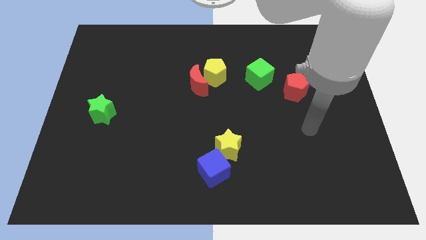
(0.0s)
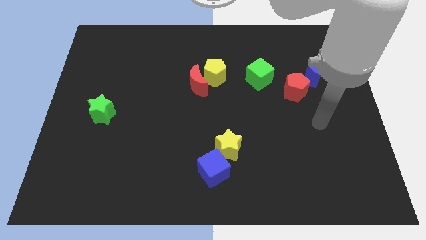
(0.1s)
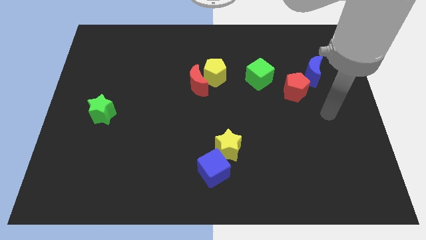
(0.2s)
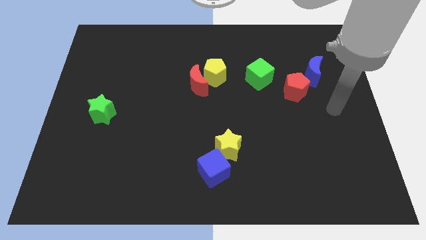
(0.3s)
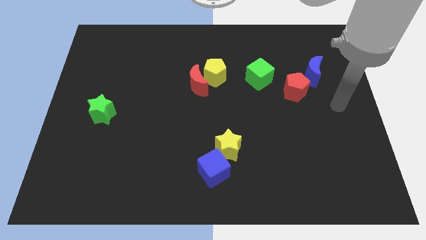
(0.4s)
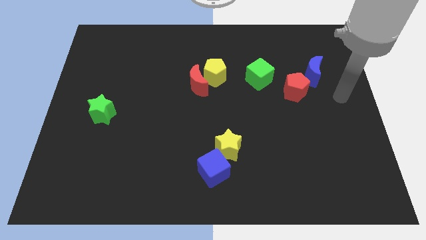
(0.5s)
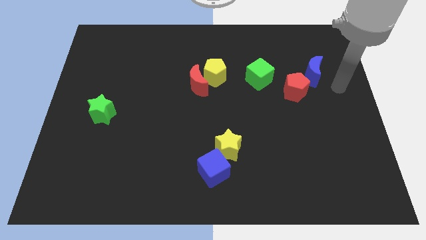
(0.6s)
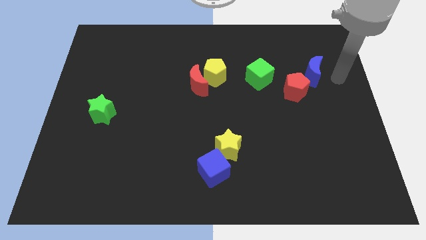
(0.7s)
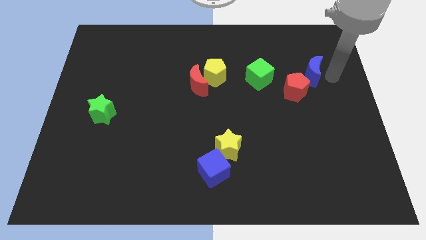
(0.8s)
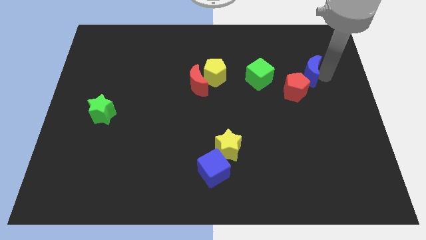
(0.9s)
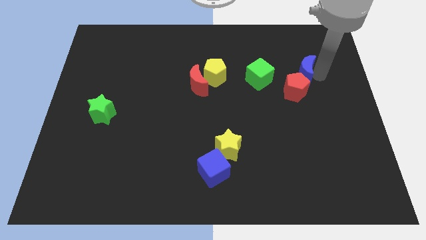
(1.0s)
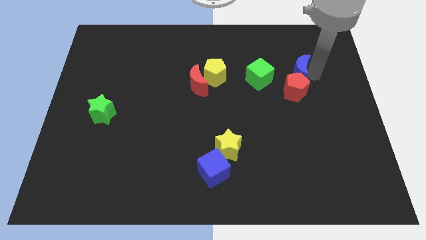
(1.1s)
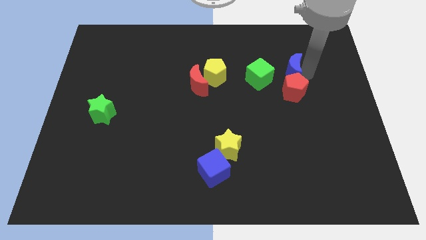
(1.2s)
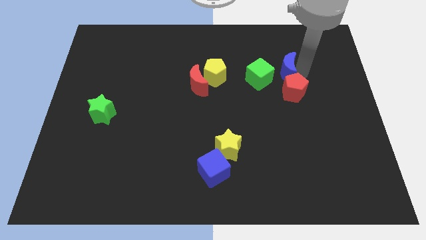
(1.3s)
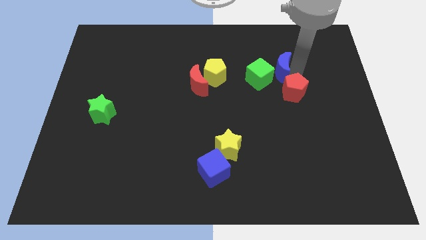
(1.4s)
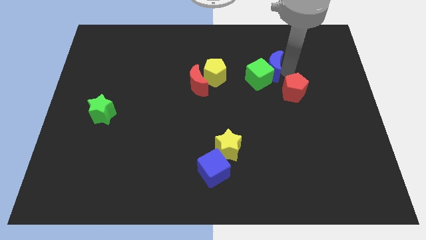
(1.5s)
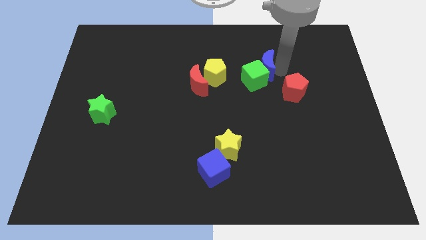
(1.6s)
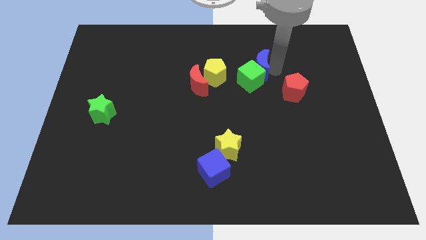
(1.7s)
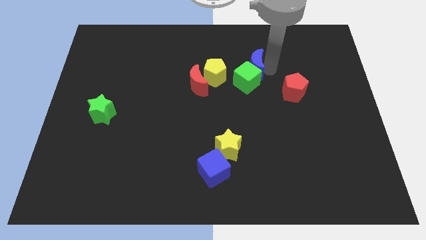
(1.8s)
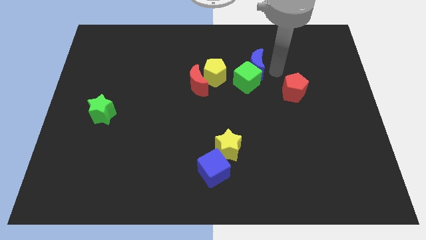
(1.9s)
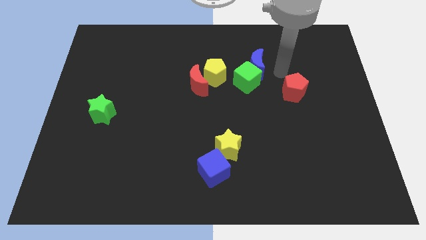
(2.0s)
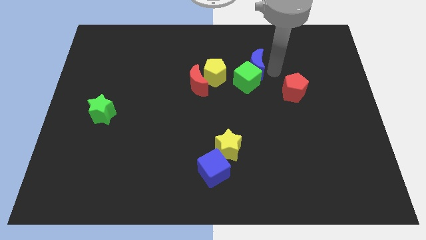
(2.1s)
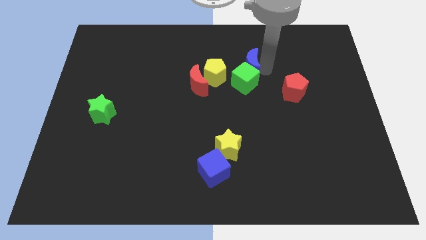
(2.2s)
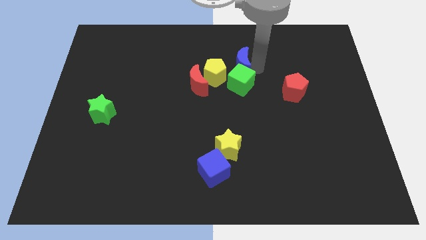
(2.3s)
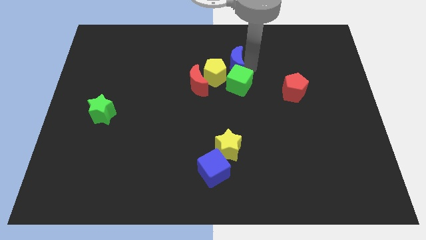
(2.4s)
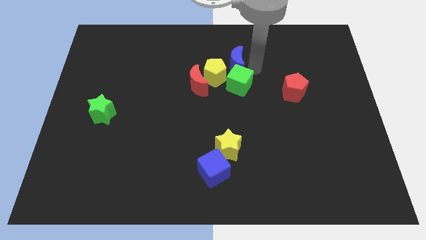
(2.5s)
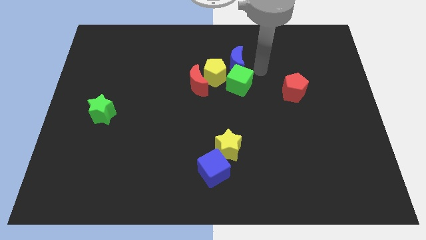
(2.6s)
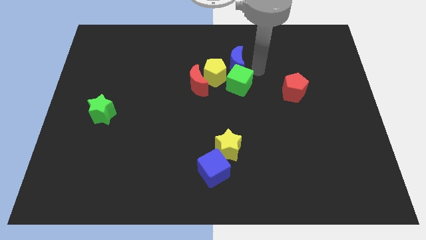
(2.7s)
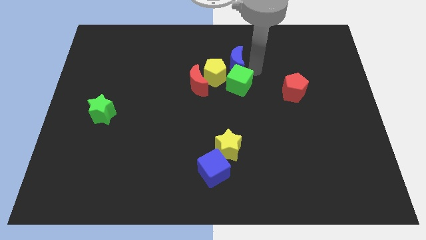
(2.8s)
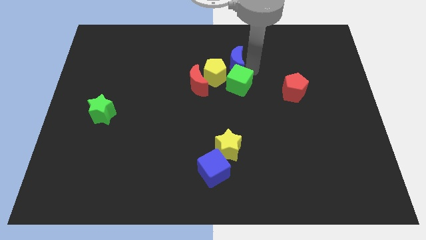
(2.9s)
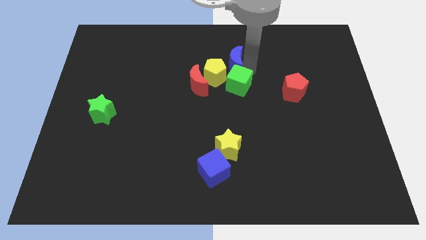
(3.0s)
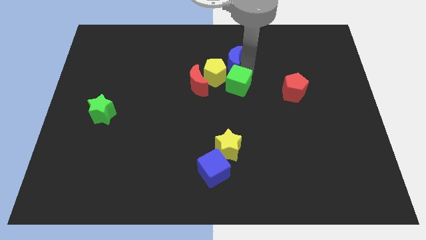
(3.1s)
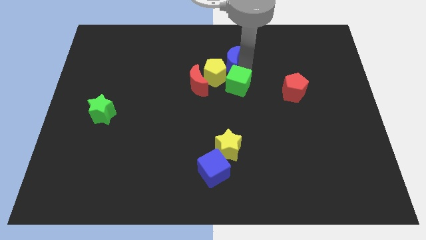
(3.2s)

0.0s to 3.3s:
move the blue moon to the left

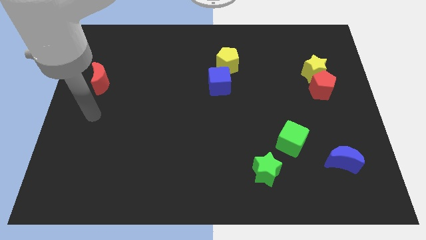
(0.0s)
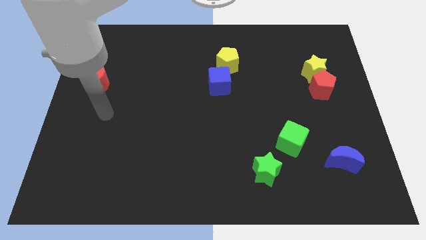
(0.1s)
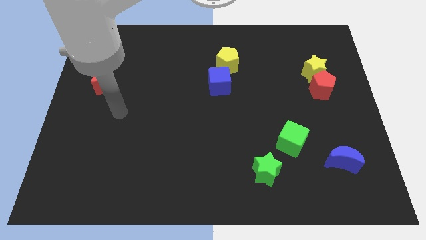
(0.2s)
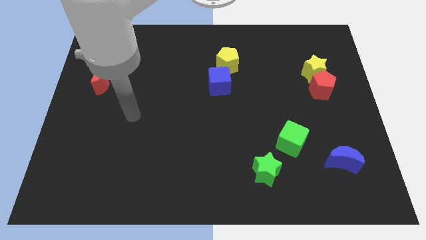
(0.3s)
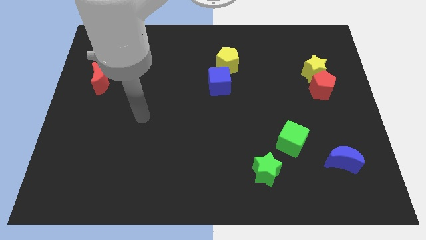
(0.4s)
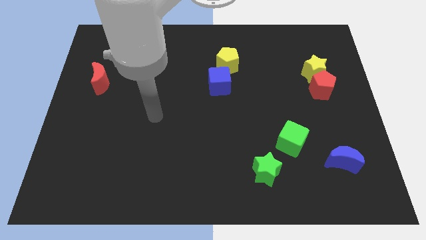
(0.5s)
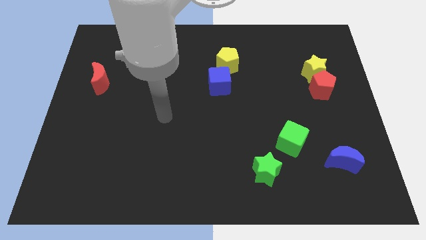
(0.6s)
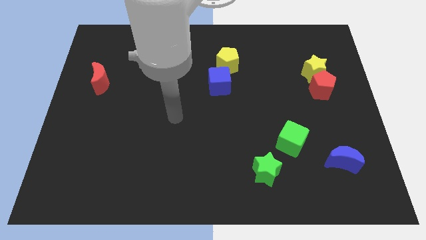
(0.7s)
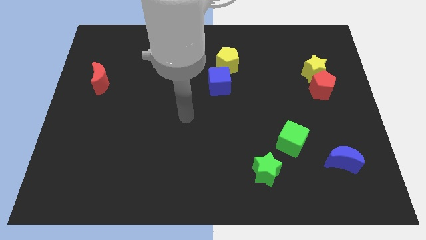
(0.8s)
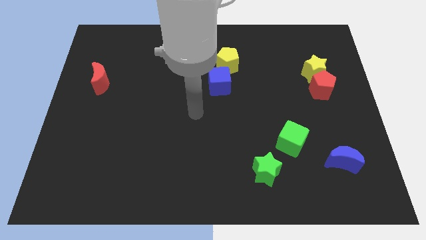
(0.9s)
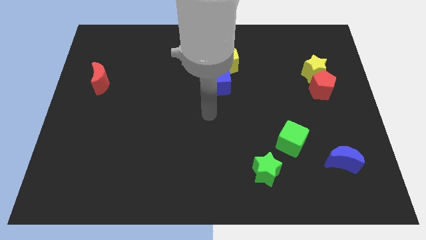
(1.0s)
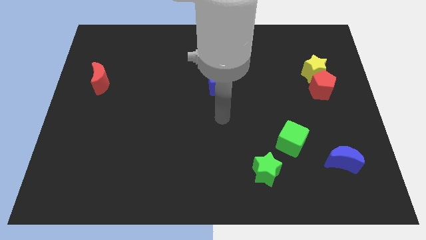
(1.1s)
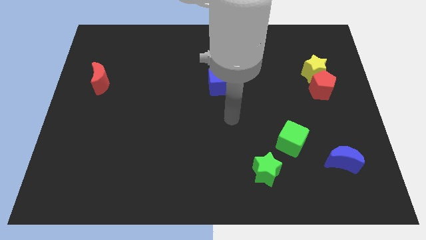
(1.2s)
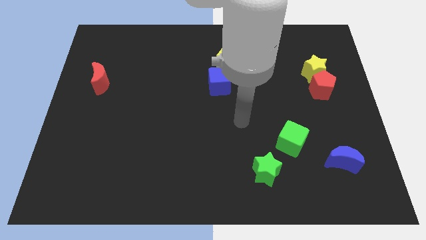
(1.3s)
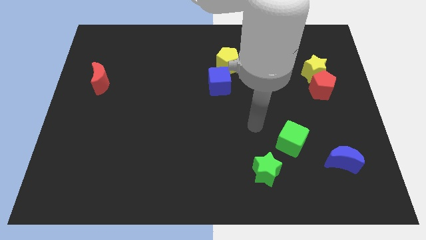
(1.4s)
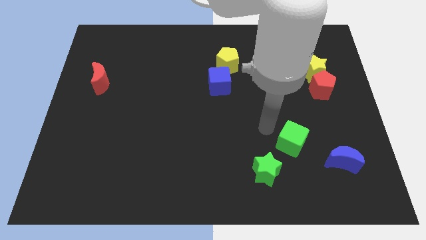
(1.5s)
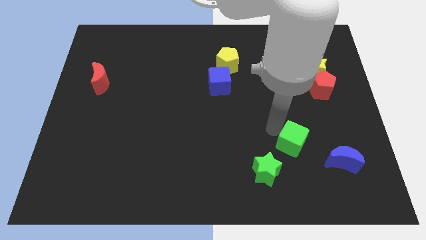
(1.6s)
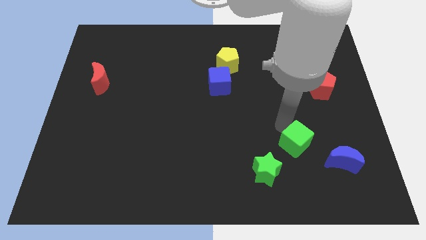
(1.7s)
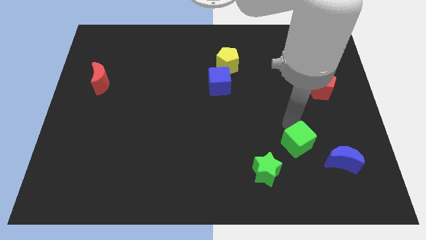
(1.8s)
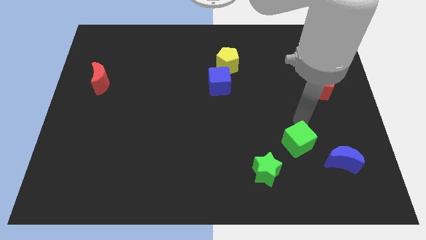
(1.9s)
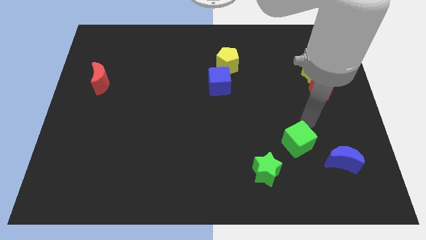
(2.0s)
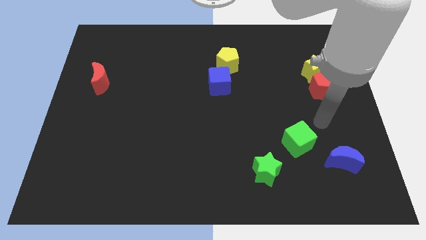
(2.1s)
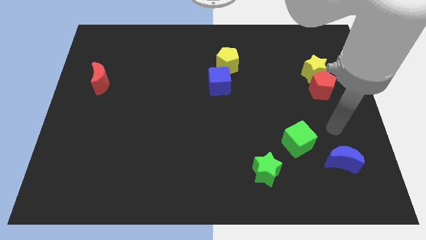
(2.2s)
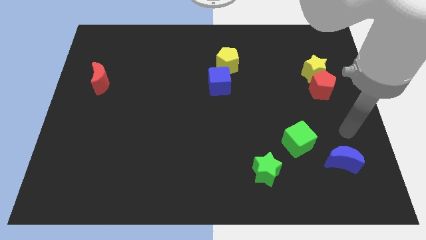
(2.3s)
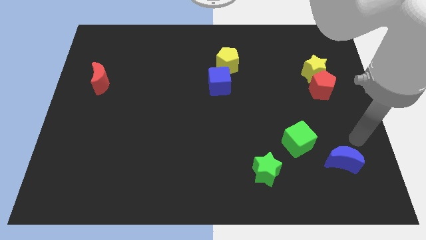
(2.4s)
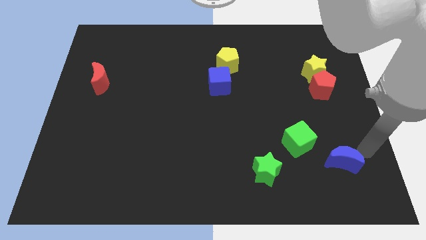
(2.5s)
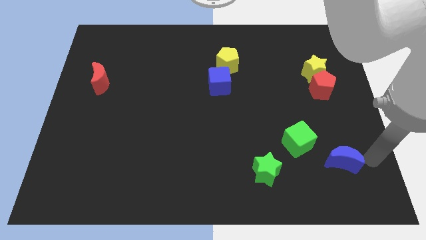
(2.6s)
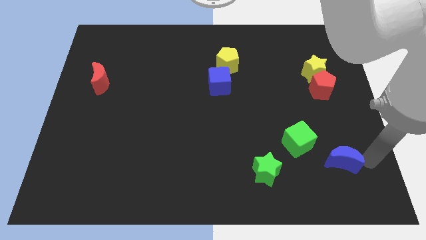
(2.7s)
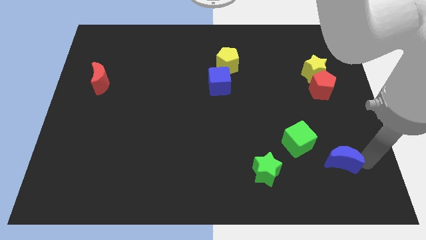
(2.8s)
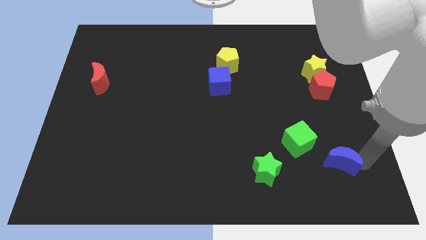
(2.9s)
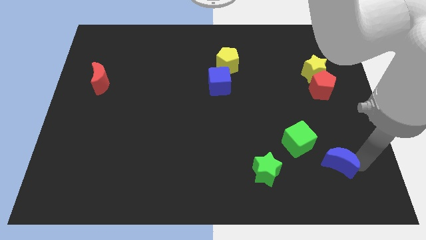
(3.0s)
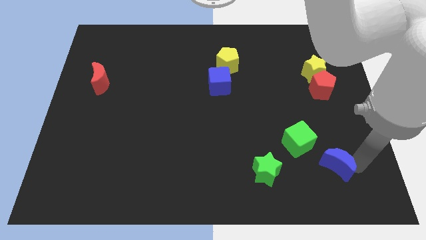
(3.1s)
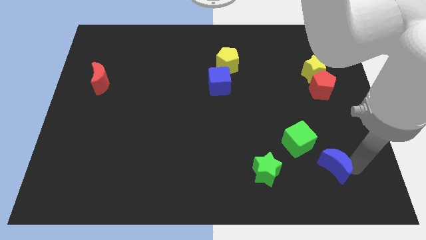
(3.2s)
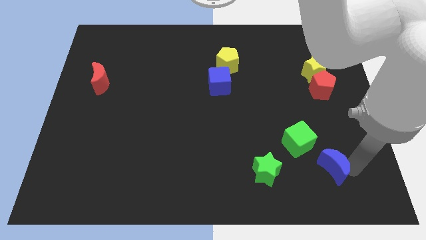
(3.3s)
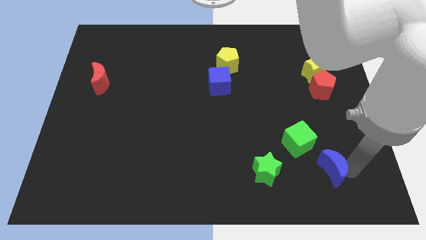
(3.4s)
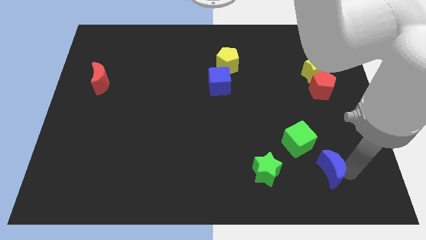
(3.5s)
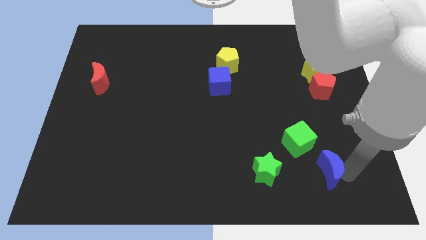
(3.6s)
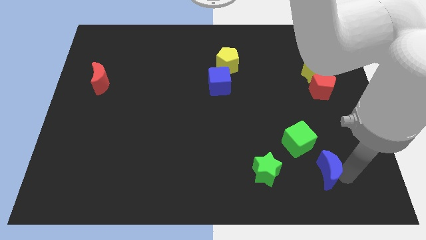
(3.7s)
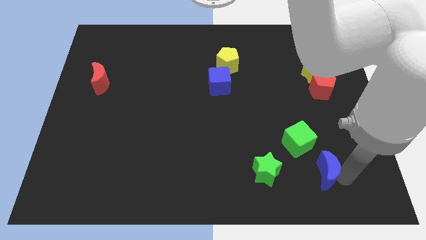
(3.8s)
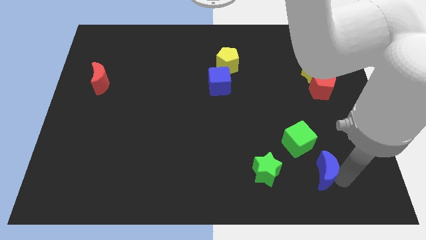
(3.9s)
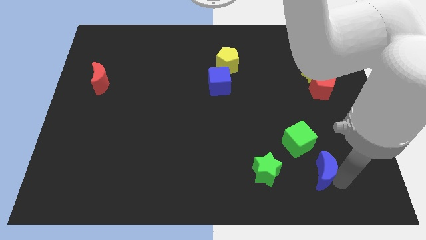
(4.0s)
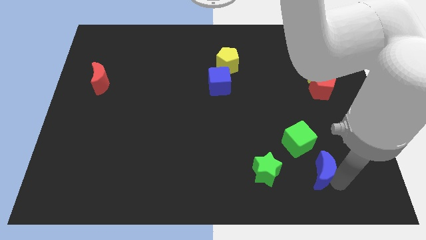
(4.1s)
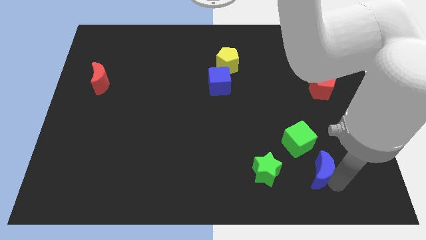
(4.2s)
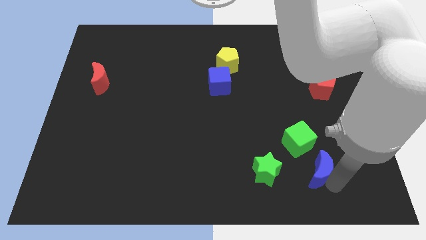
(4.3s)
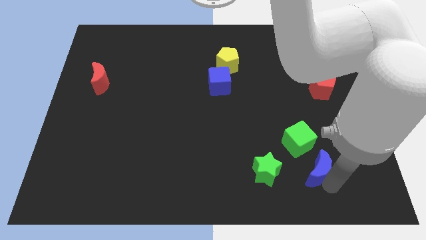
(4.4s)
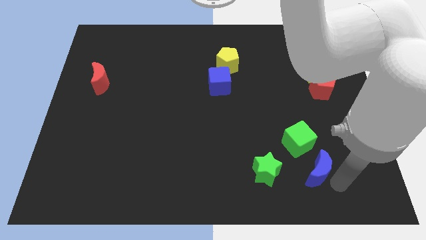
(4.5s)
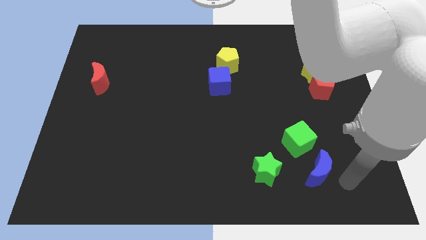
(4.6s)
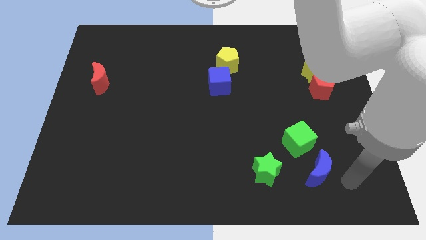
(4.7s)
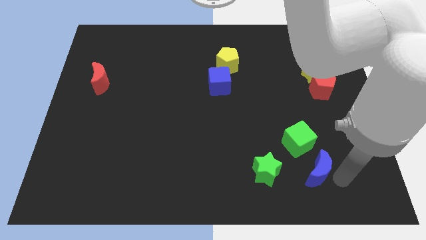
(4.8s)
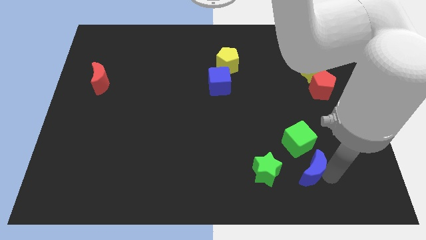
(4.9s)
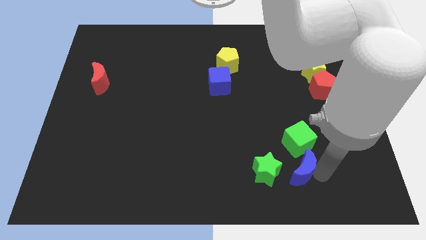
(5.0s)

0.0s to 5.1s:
move the blue moon a little to the left

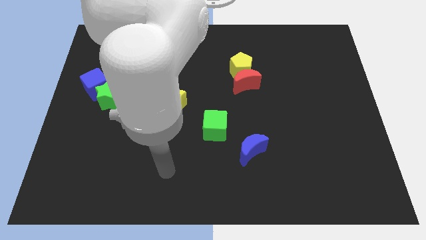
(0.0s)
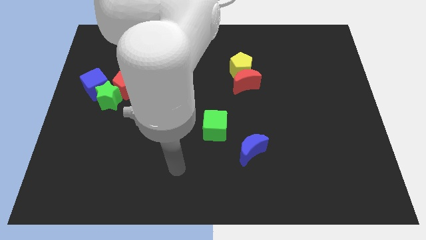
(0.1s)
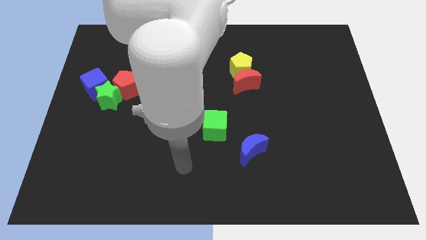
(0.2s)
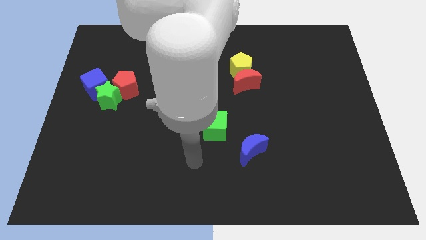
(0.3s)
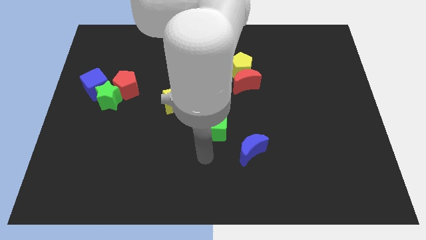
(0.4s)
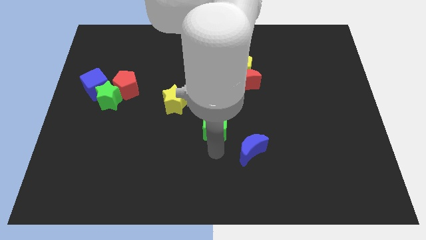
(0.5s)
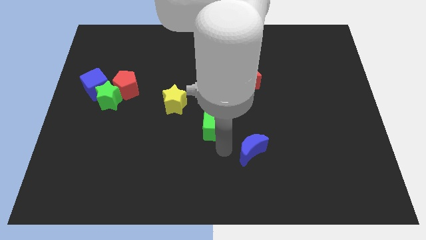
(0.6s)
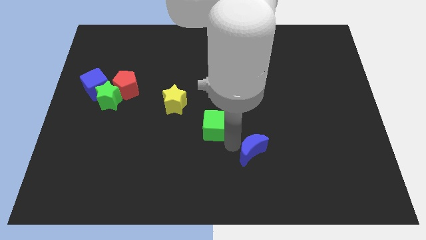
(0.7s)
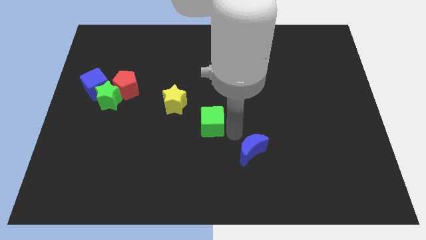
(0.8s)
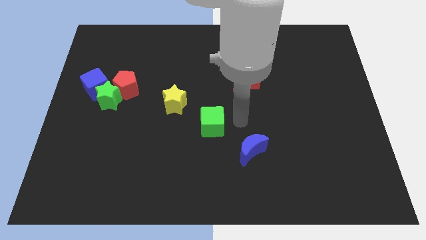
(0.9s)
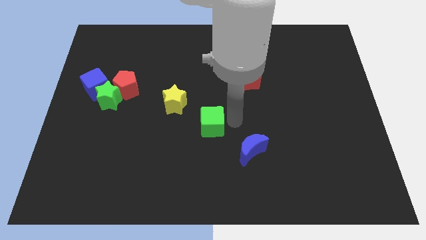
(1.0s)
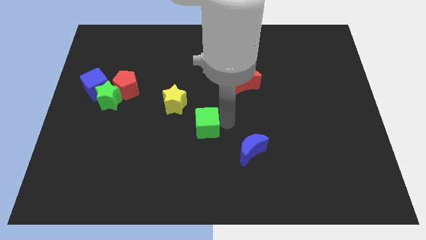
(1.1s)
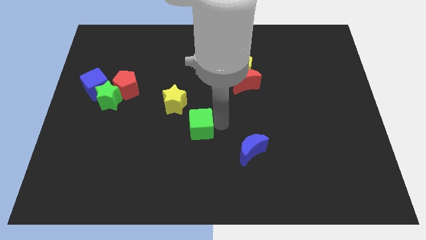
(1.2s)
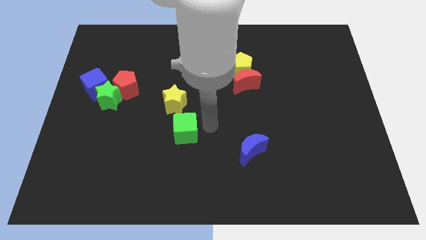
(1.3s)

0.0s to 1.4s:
move the green cube a bit to the left
